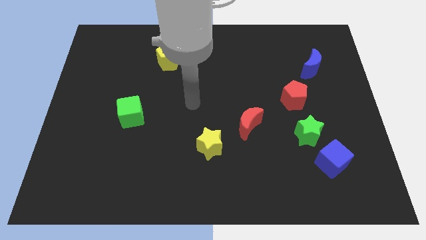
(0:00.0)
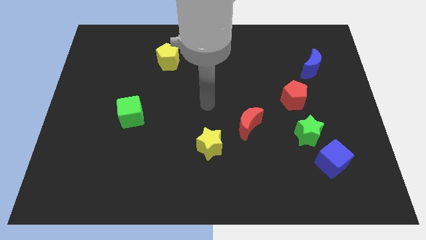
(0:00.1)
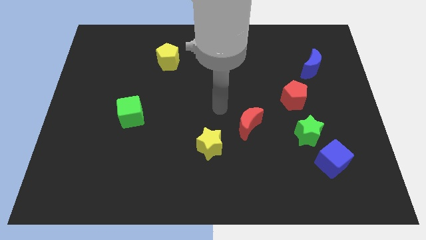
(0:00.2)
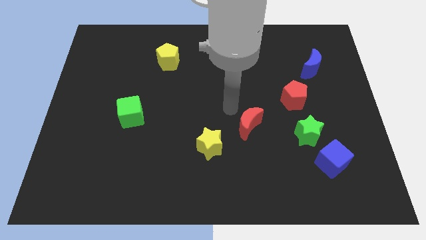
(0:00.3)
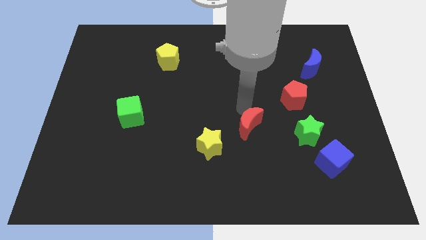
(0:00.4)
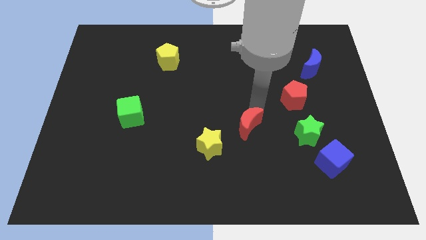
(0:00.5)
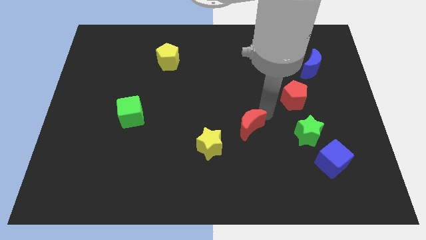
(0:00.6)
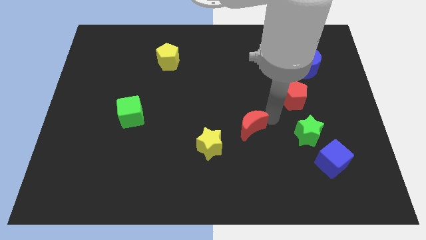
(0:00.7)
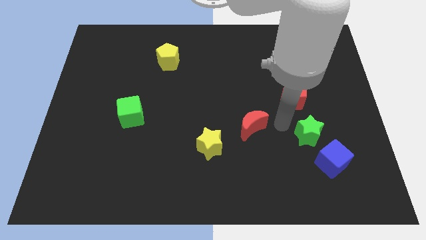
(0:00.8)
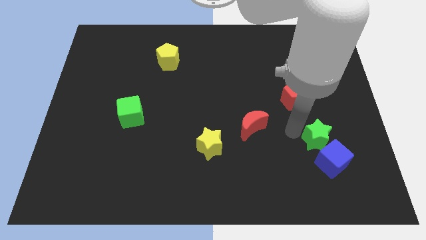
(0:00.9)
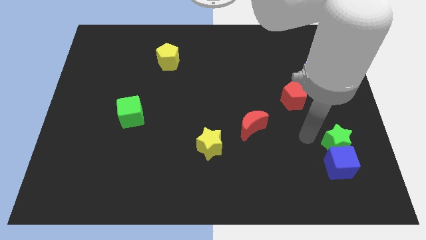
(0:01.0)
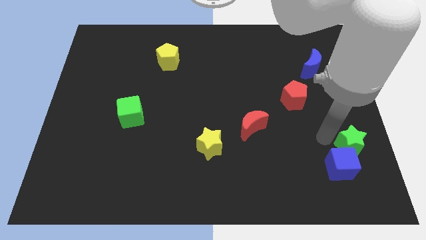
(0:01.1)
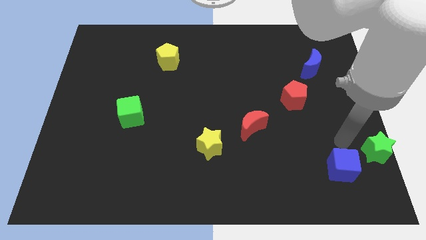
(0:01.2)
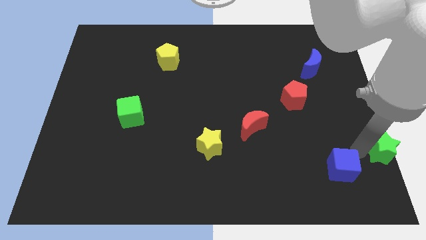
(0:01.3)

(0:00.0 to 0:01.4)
pull the blue cube apart from the green star

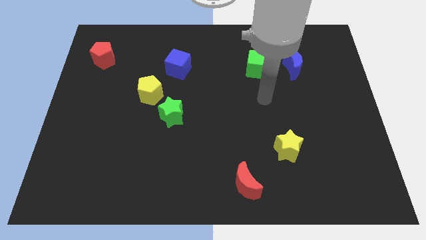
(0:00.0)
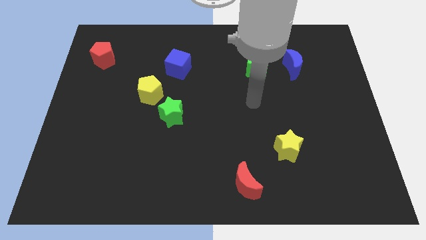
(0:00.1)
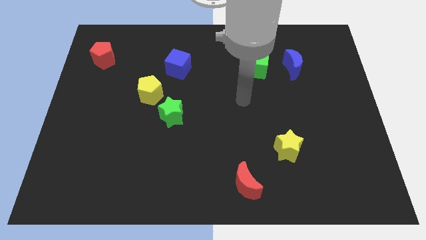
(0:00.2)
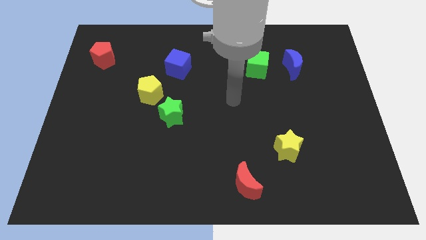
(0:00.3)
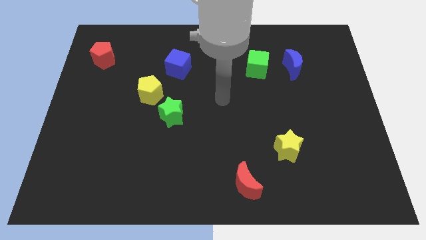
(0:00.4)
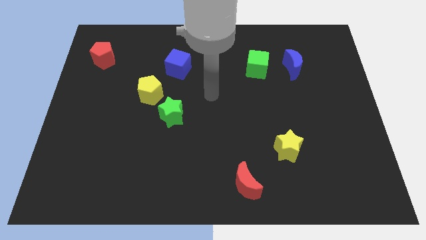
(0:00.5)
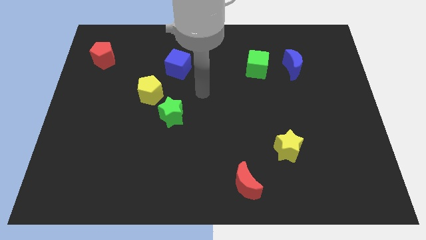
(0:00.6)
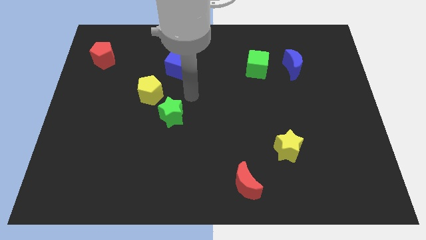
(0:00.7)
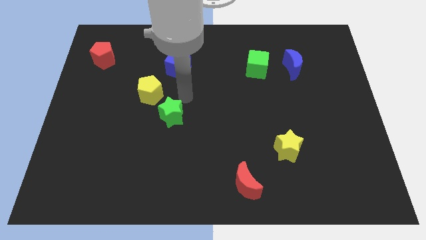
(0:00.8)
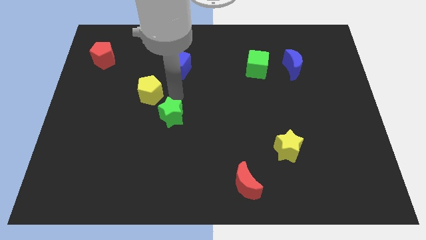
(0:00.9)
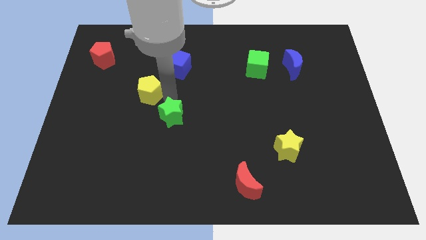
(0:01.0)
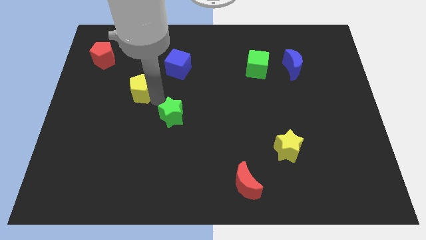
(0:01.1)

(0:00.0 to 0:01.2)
move the green star away from the yellow pentagon

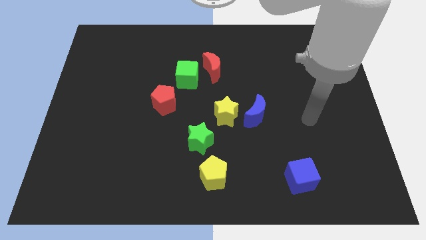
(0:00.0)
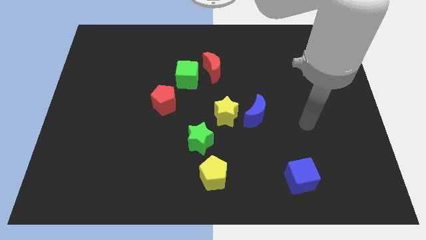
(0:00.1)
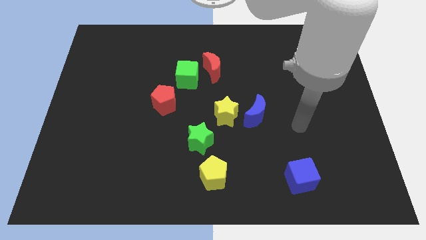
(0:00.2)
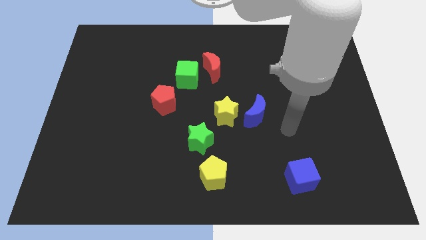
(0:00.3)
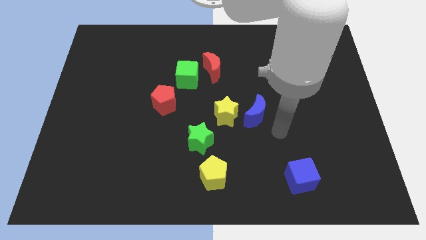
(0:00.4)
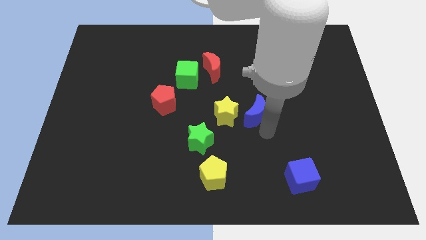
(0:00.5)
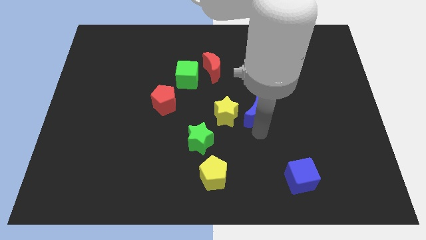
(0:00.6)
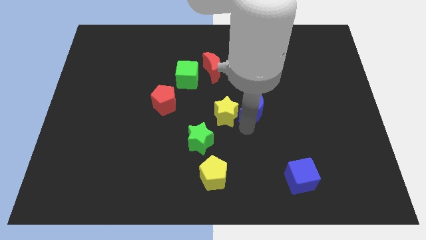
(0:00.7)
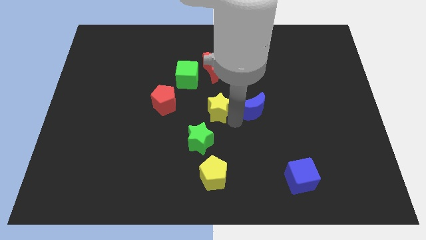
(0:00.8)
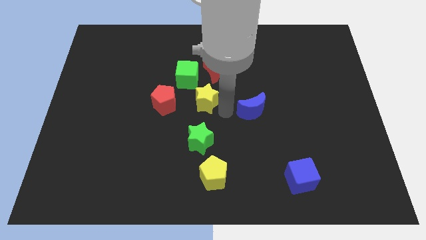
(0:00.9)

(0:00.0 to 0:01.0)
pull the blue moon apart from the yellow star

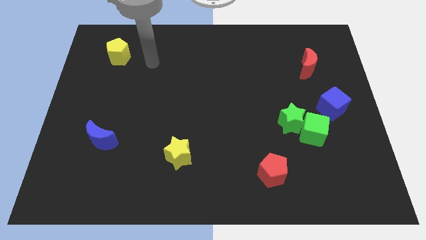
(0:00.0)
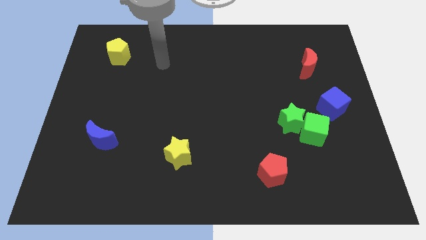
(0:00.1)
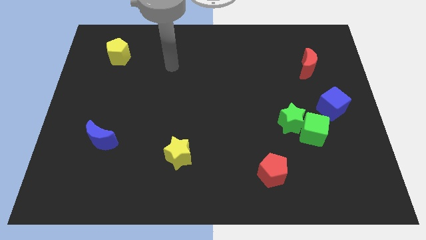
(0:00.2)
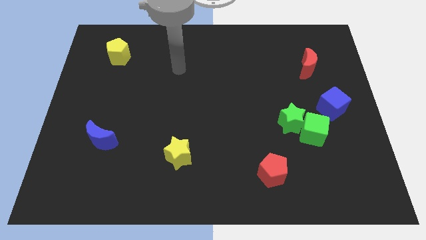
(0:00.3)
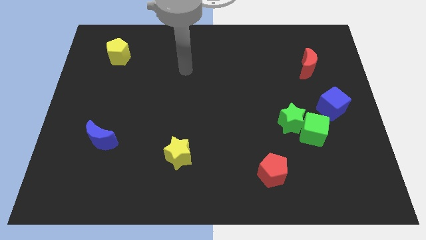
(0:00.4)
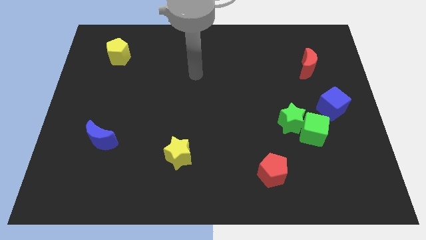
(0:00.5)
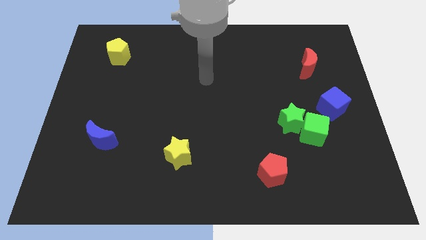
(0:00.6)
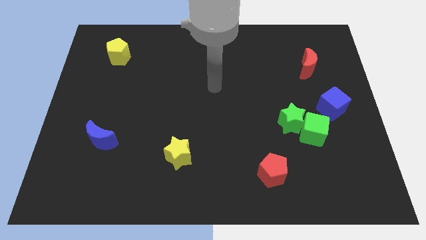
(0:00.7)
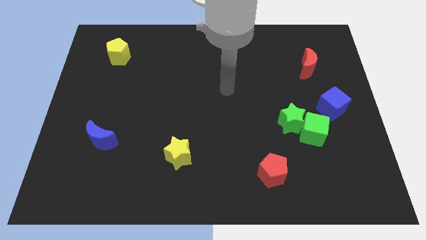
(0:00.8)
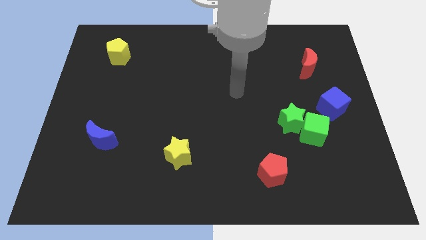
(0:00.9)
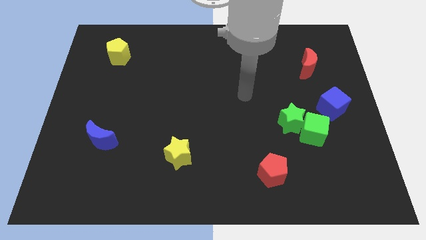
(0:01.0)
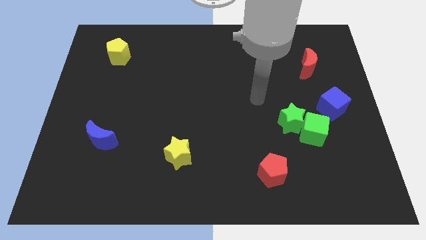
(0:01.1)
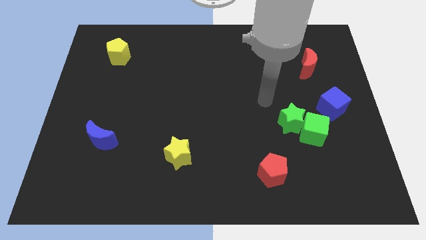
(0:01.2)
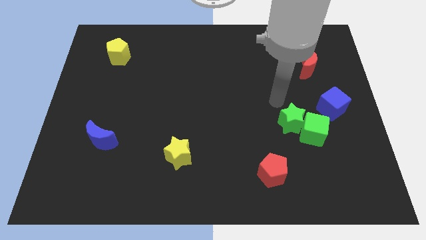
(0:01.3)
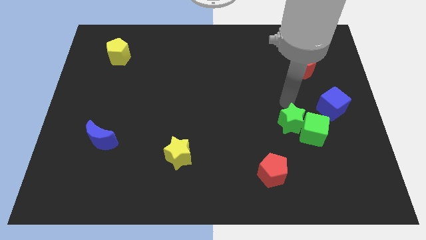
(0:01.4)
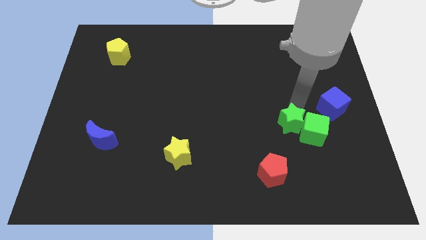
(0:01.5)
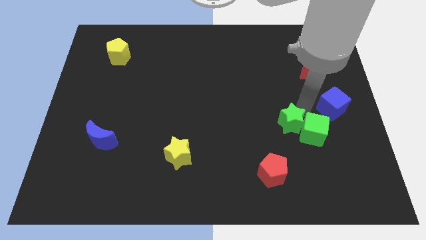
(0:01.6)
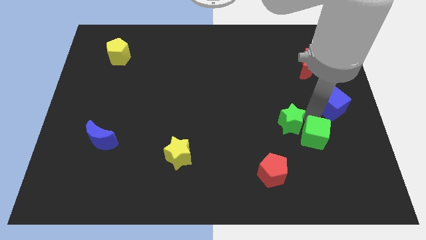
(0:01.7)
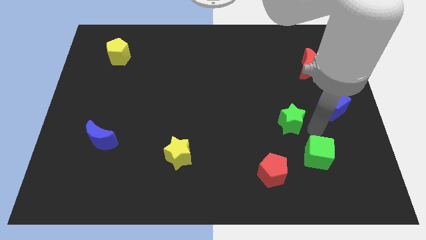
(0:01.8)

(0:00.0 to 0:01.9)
pull the green star apart from the green cube

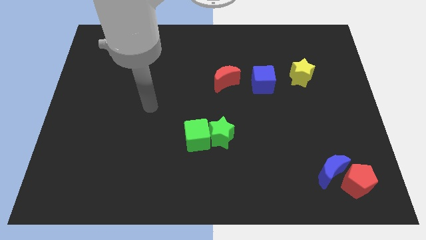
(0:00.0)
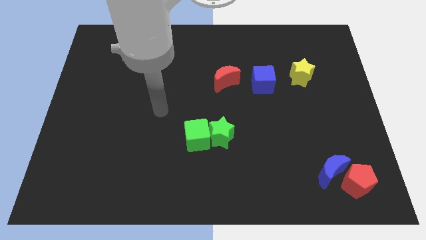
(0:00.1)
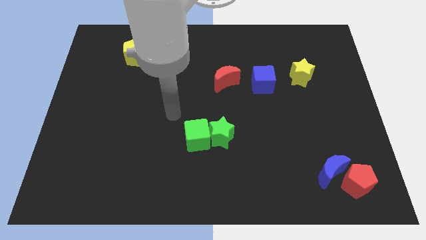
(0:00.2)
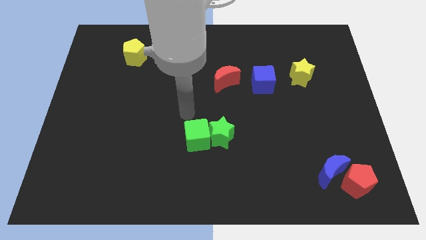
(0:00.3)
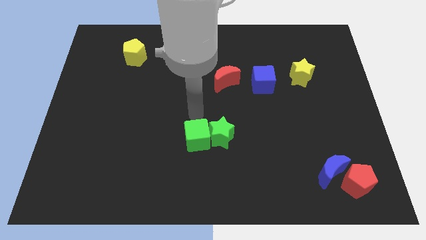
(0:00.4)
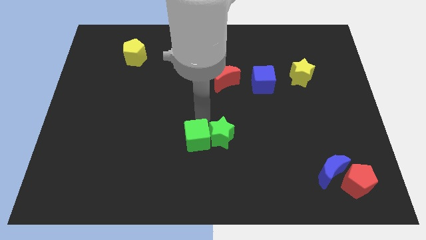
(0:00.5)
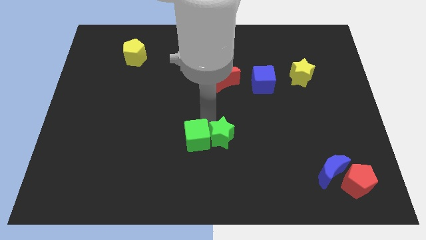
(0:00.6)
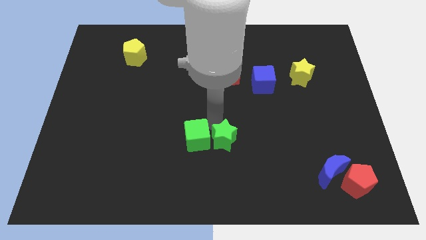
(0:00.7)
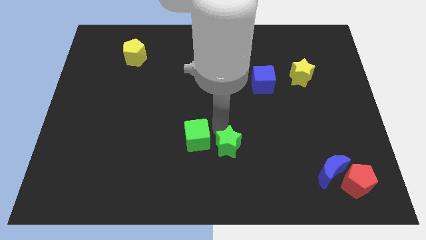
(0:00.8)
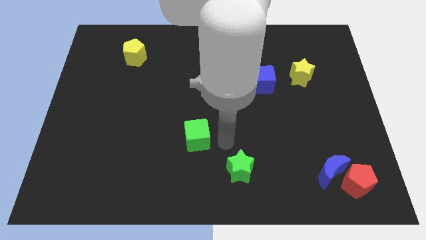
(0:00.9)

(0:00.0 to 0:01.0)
move the green cube away from the green star

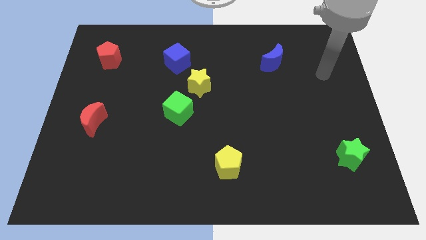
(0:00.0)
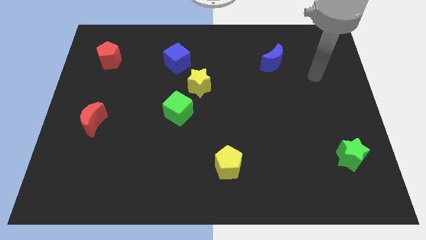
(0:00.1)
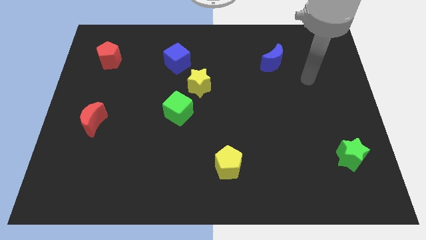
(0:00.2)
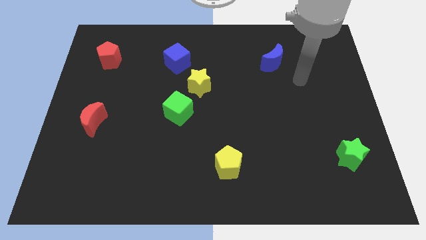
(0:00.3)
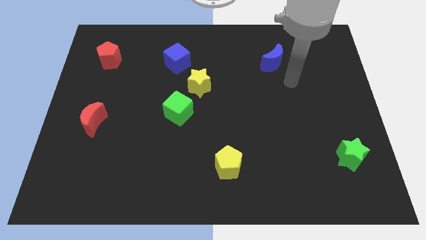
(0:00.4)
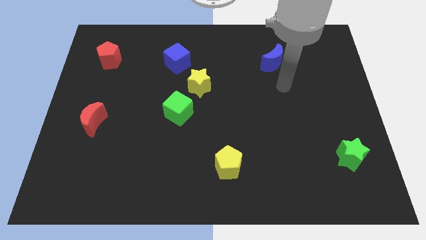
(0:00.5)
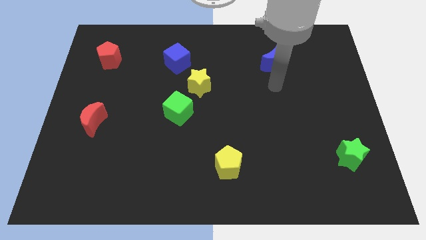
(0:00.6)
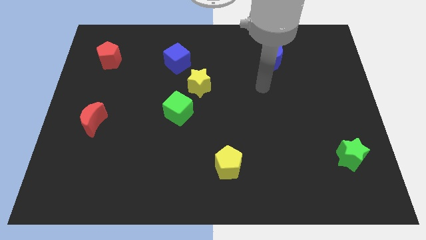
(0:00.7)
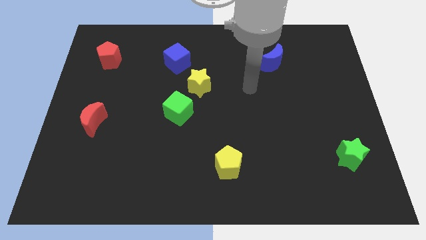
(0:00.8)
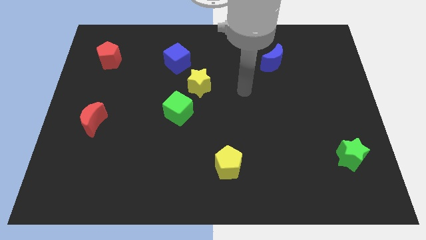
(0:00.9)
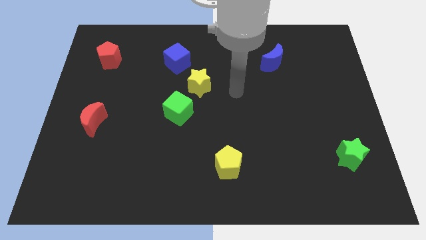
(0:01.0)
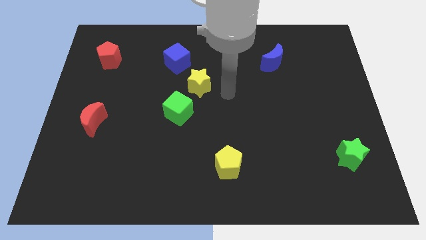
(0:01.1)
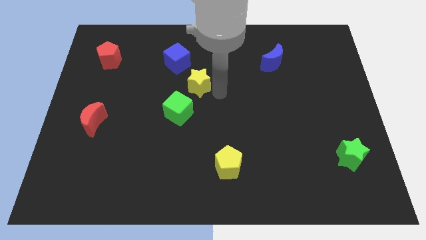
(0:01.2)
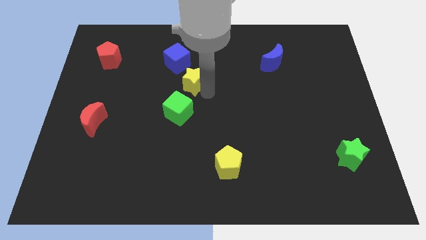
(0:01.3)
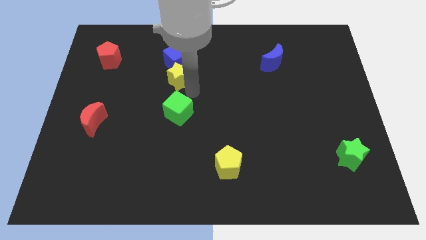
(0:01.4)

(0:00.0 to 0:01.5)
pull the green cube apart from the yellow star

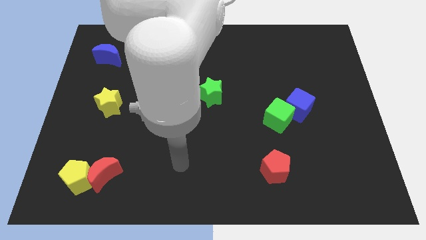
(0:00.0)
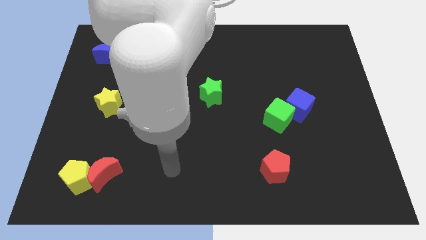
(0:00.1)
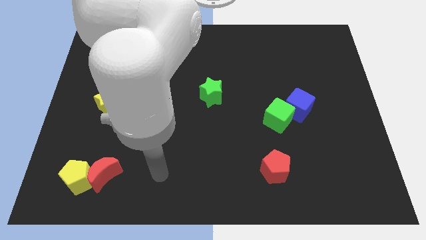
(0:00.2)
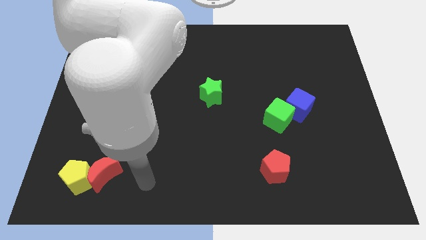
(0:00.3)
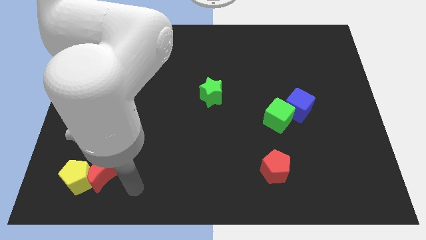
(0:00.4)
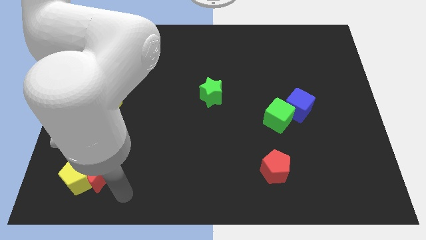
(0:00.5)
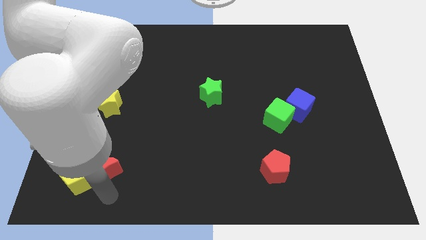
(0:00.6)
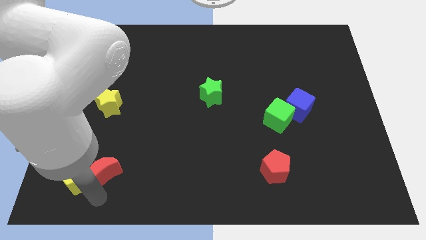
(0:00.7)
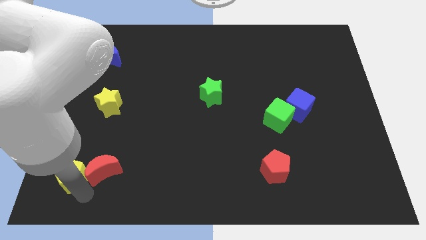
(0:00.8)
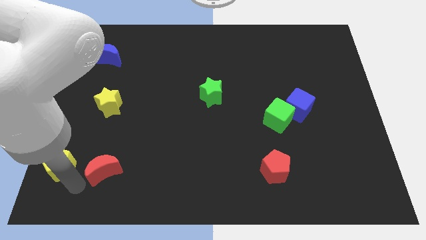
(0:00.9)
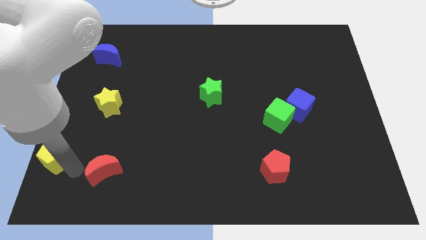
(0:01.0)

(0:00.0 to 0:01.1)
move the red moon away from the yellow pentagon

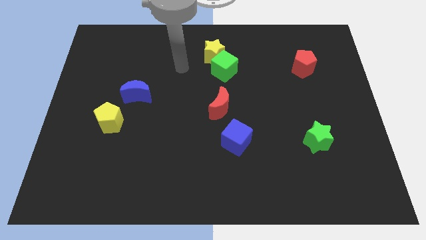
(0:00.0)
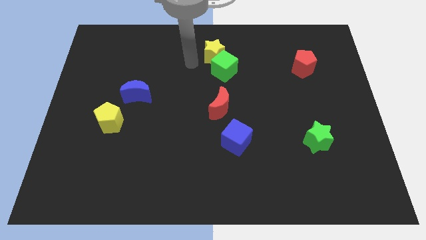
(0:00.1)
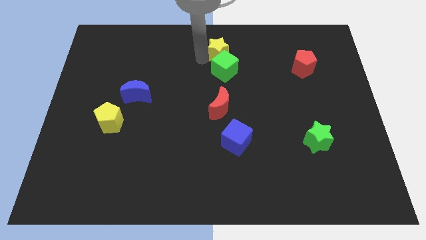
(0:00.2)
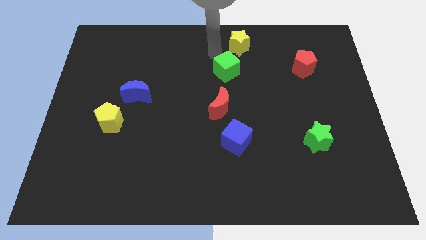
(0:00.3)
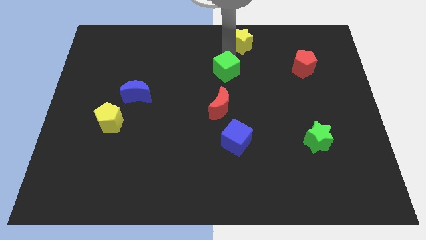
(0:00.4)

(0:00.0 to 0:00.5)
separate the green cube from the yellow star
